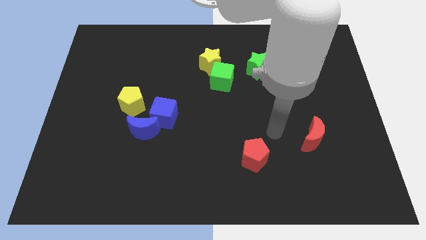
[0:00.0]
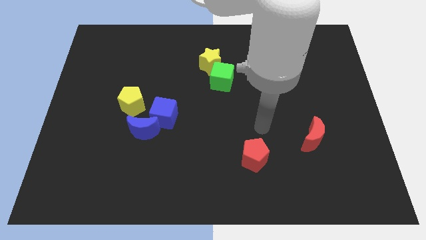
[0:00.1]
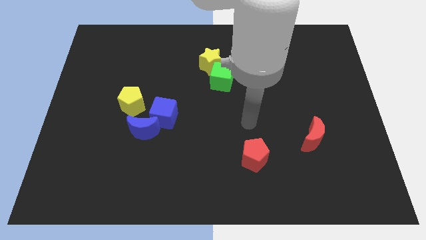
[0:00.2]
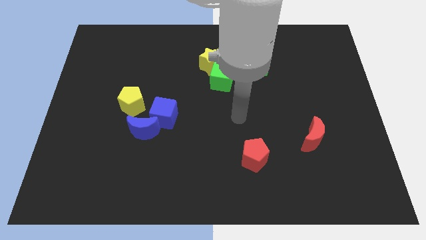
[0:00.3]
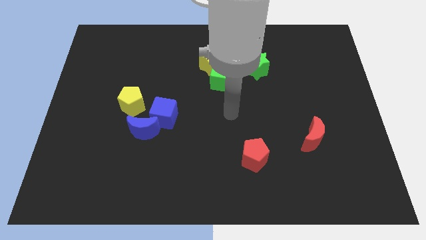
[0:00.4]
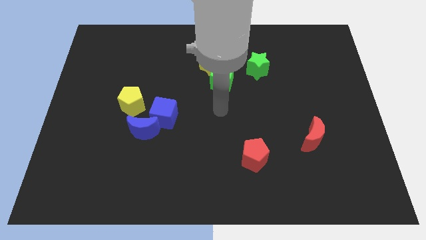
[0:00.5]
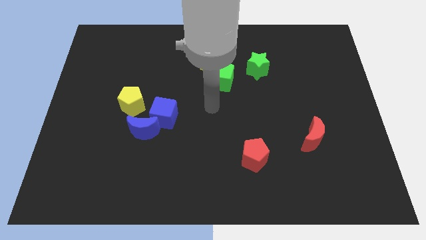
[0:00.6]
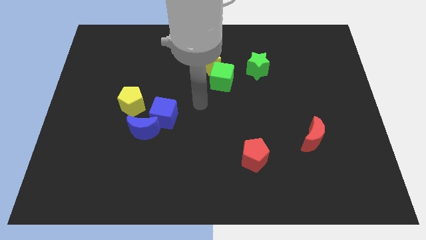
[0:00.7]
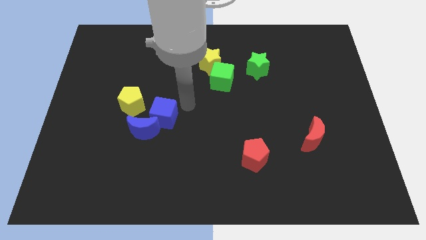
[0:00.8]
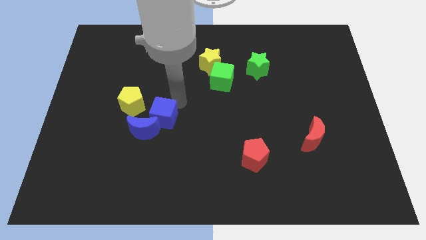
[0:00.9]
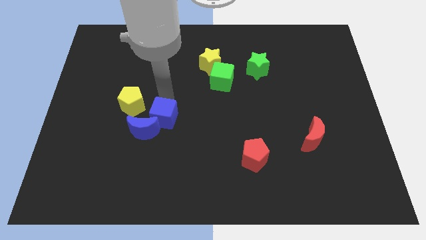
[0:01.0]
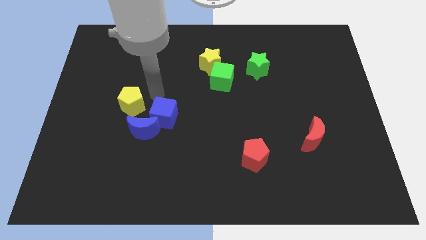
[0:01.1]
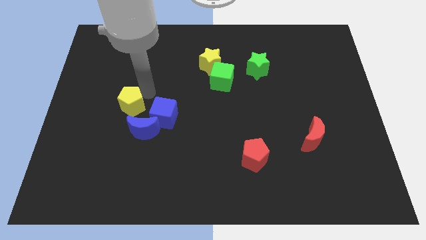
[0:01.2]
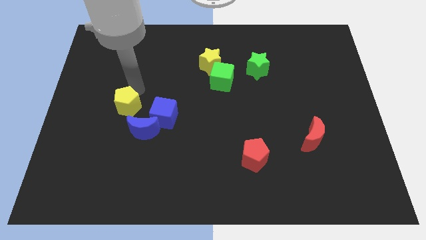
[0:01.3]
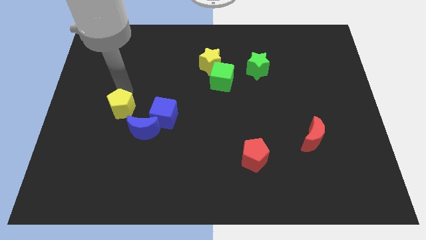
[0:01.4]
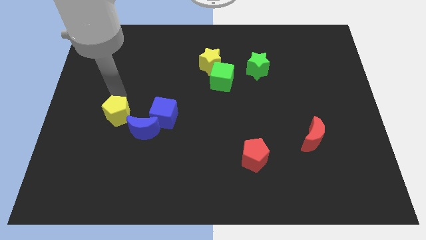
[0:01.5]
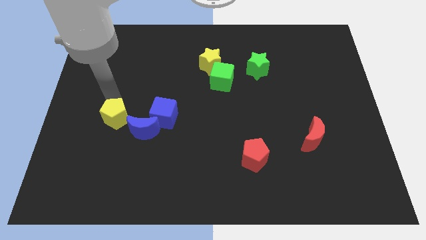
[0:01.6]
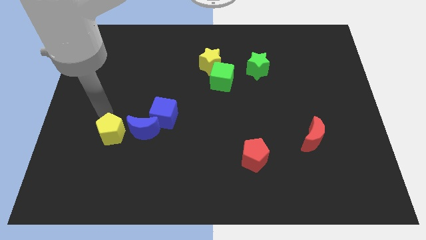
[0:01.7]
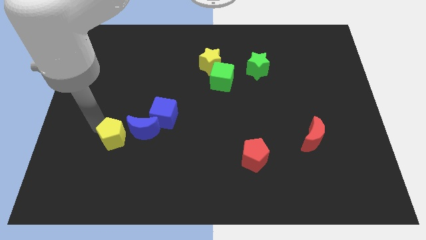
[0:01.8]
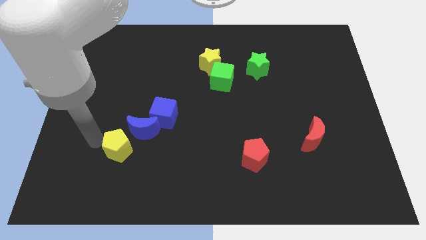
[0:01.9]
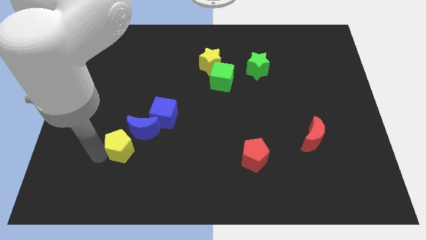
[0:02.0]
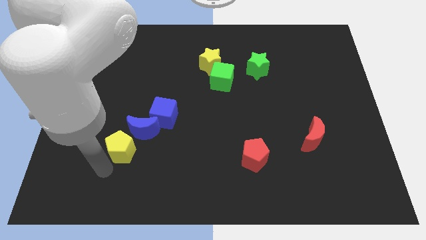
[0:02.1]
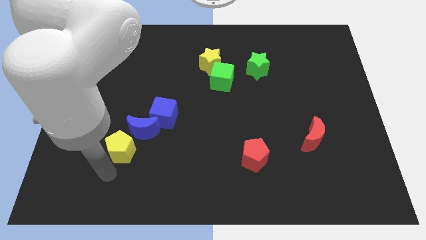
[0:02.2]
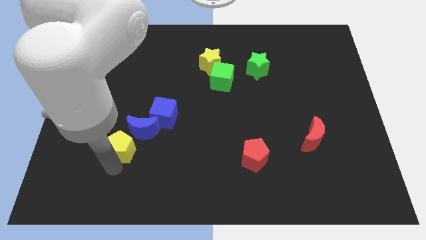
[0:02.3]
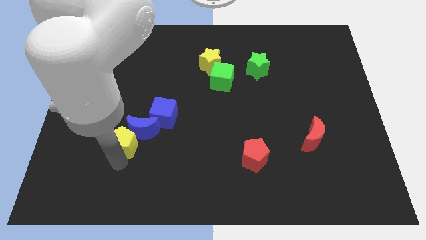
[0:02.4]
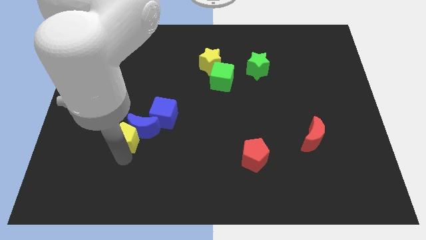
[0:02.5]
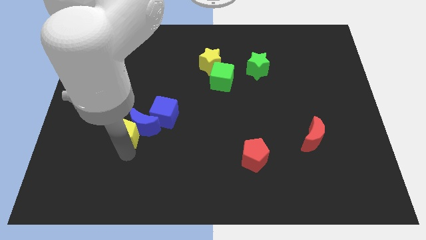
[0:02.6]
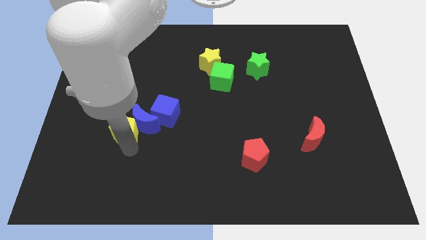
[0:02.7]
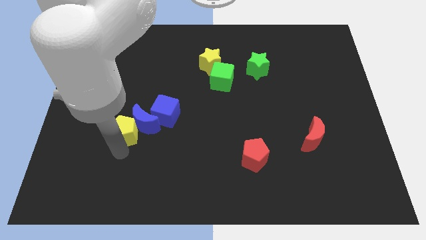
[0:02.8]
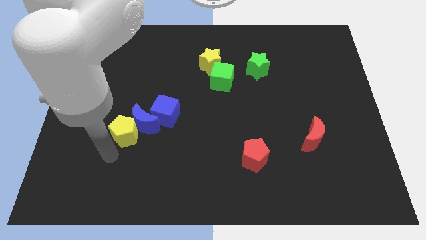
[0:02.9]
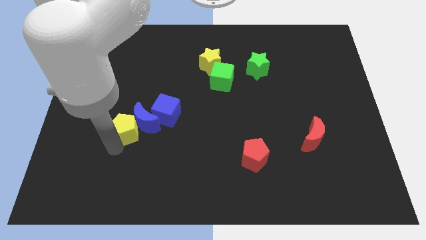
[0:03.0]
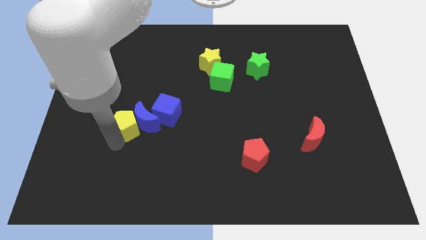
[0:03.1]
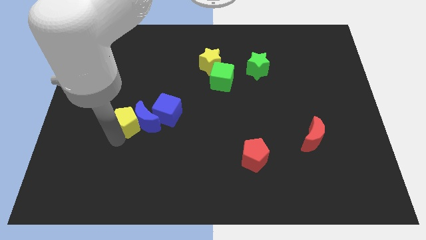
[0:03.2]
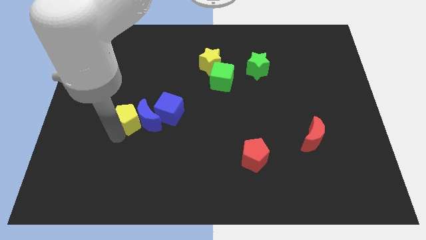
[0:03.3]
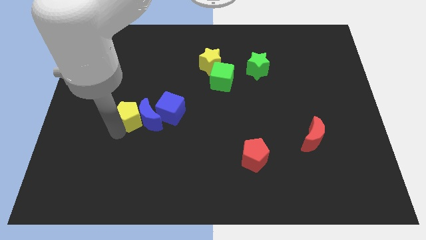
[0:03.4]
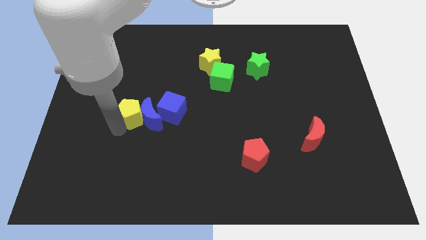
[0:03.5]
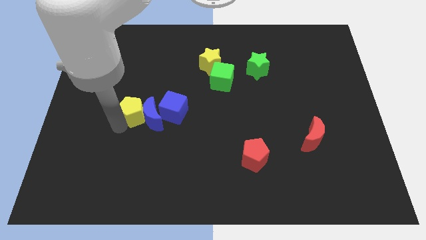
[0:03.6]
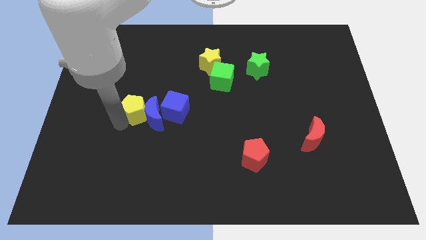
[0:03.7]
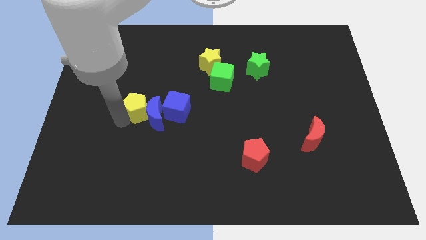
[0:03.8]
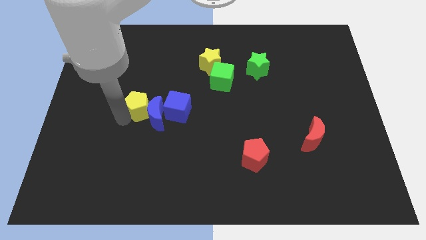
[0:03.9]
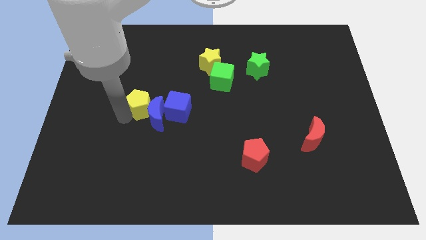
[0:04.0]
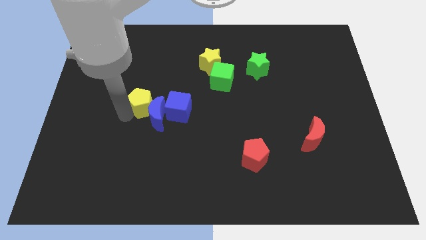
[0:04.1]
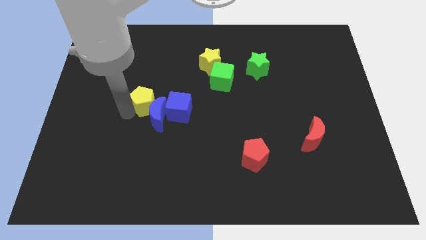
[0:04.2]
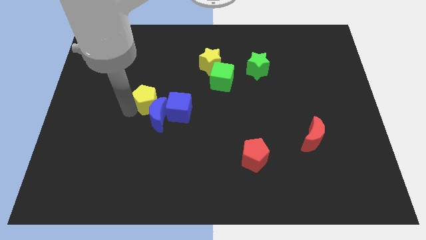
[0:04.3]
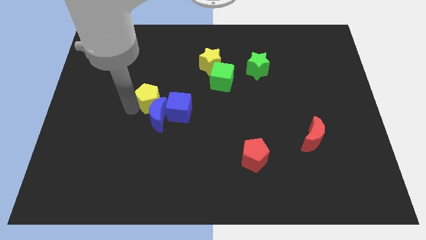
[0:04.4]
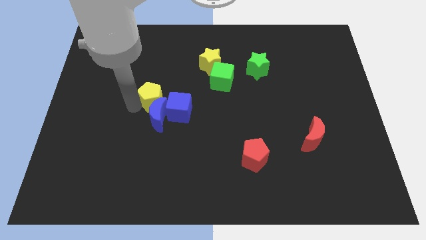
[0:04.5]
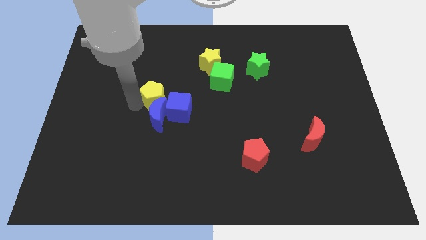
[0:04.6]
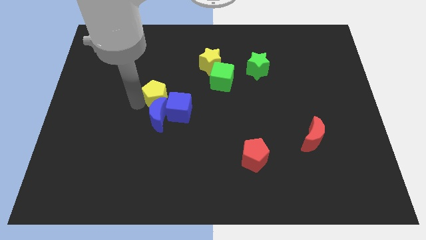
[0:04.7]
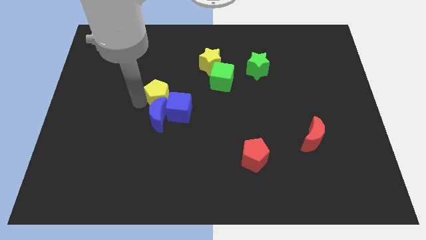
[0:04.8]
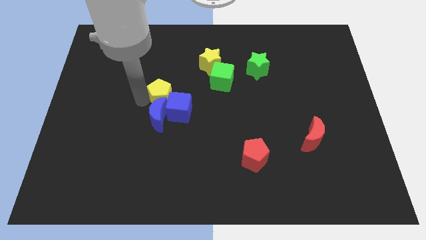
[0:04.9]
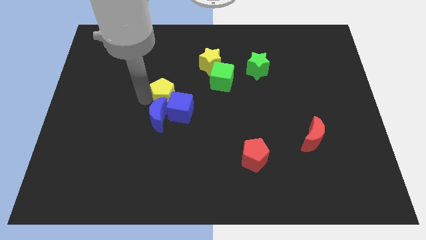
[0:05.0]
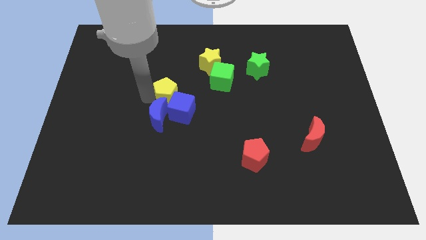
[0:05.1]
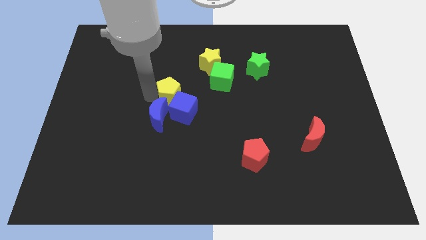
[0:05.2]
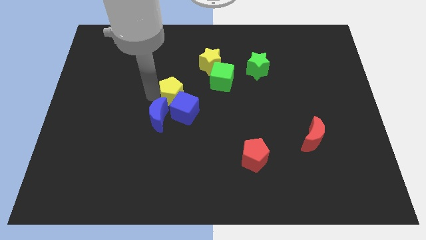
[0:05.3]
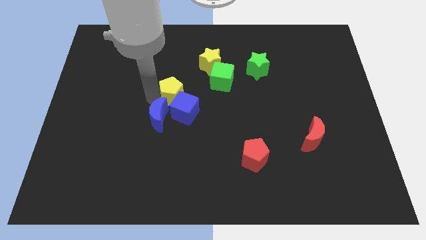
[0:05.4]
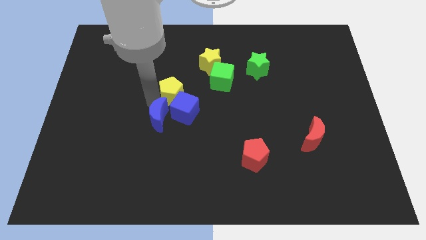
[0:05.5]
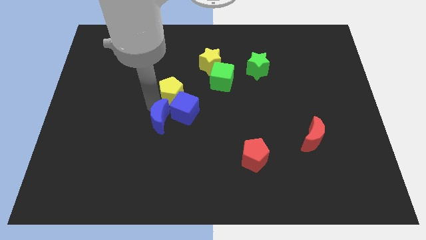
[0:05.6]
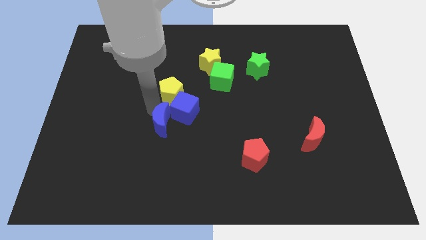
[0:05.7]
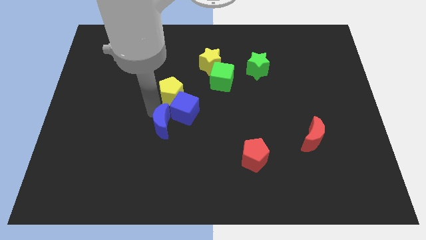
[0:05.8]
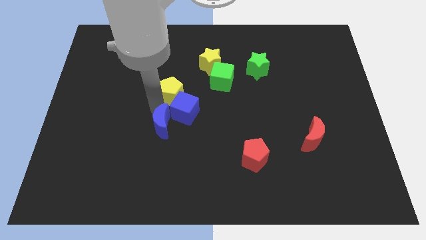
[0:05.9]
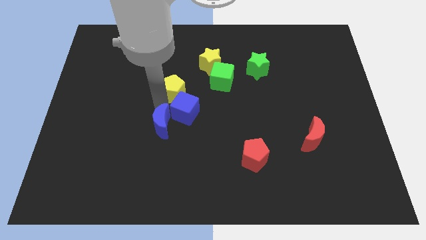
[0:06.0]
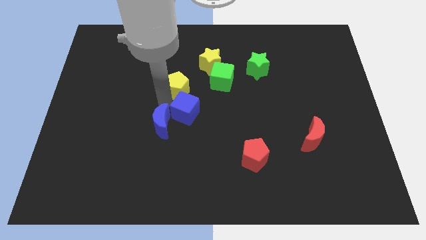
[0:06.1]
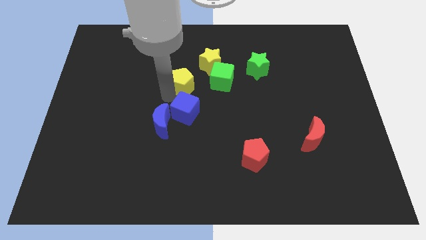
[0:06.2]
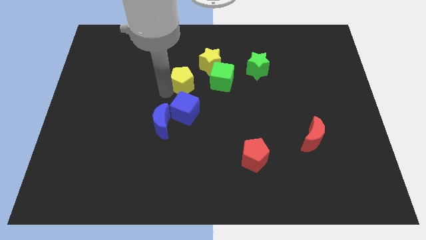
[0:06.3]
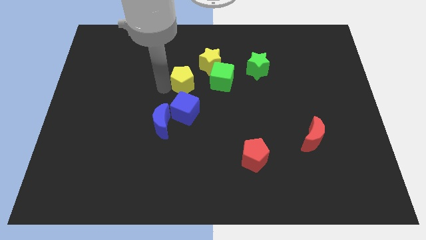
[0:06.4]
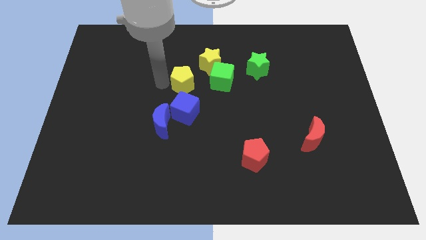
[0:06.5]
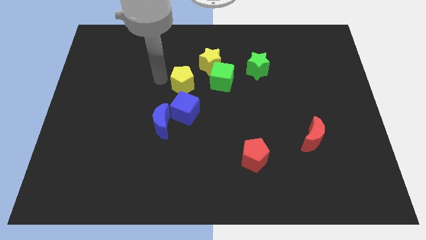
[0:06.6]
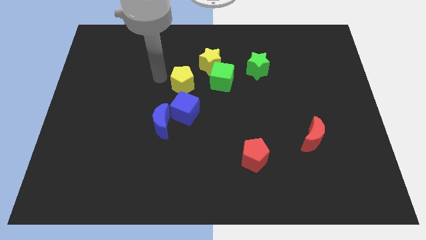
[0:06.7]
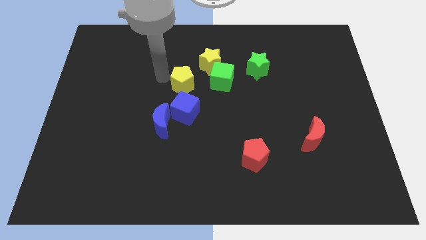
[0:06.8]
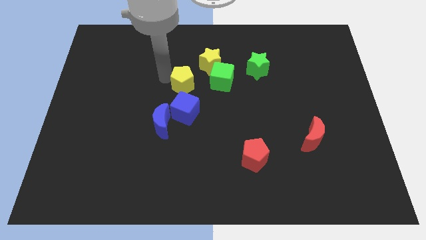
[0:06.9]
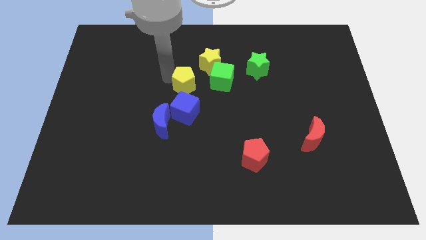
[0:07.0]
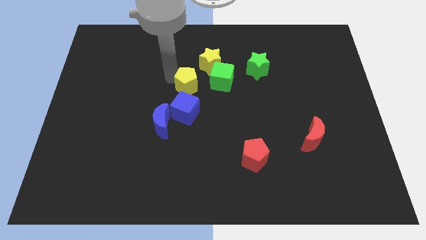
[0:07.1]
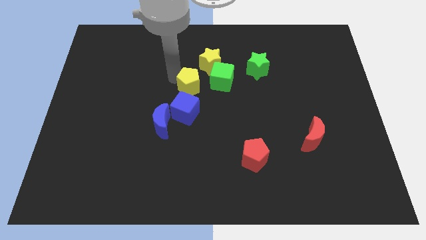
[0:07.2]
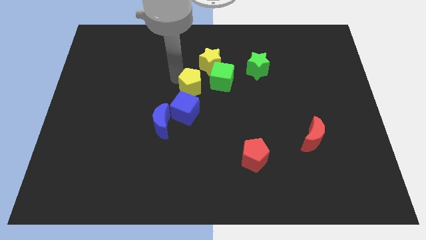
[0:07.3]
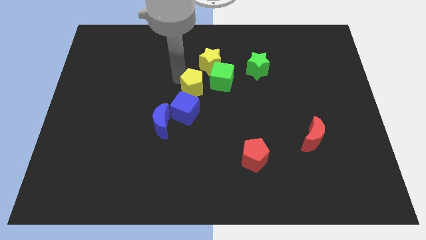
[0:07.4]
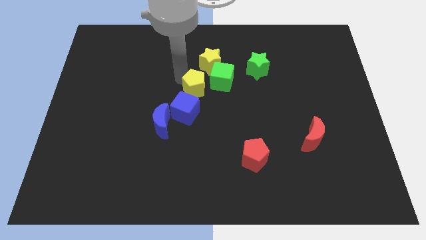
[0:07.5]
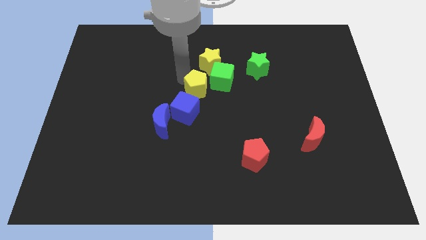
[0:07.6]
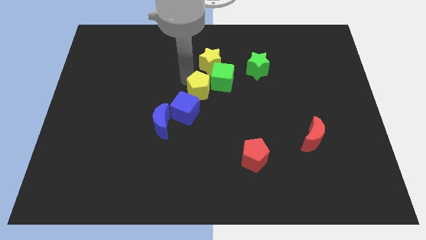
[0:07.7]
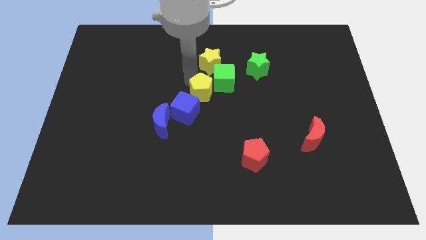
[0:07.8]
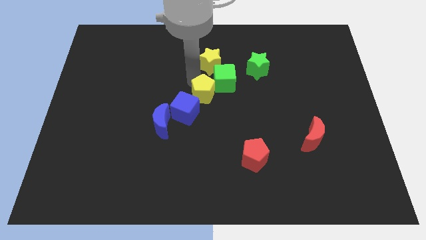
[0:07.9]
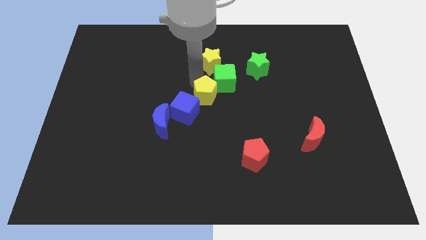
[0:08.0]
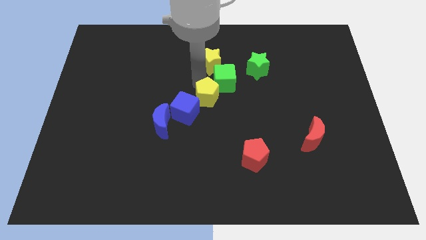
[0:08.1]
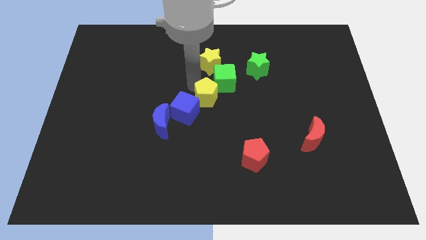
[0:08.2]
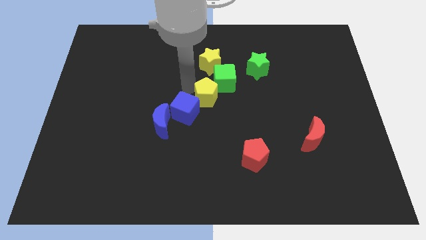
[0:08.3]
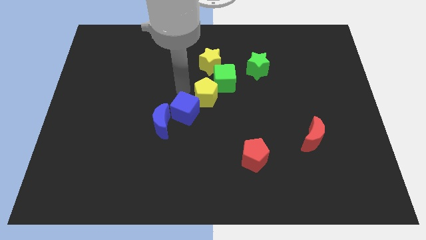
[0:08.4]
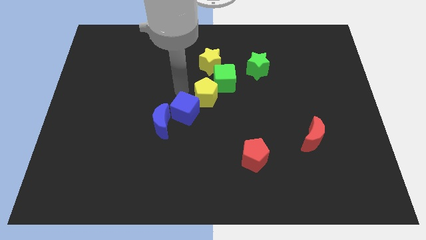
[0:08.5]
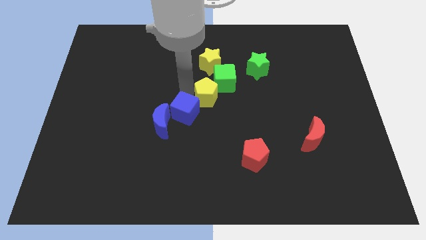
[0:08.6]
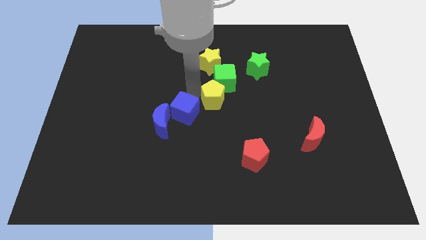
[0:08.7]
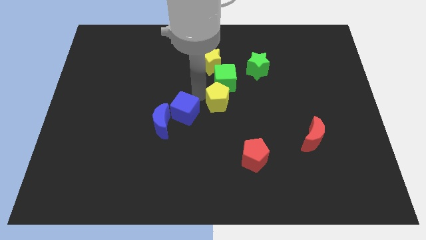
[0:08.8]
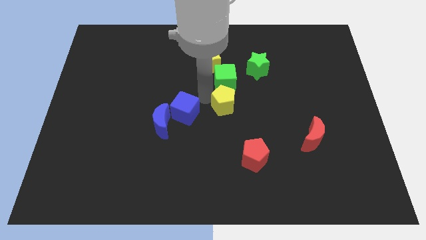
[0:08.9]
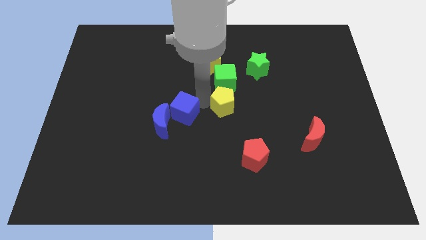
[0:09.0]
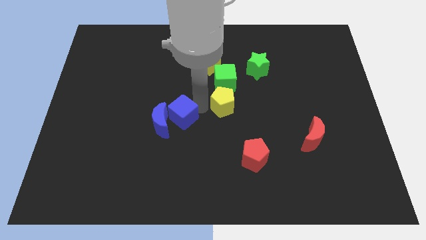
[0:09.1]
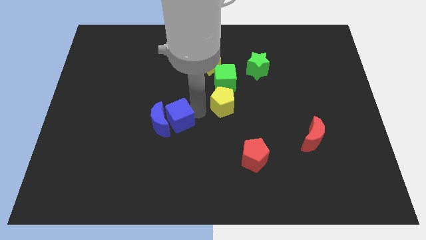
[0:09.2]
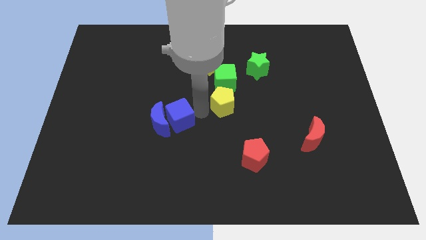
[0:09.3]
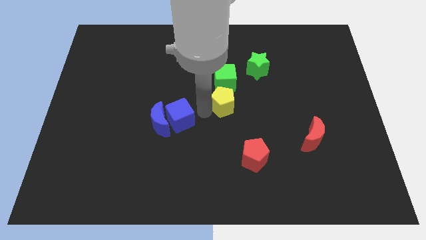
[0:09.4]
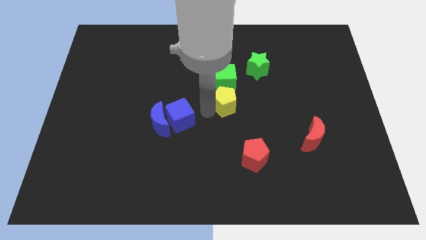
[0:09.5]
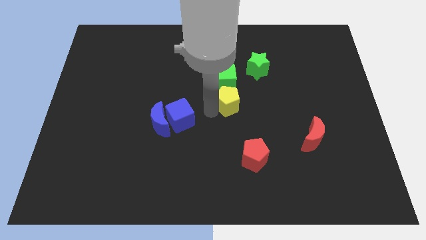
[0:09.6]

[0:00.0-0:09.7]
slide the yellow pentagon diagonally down and to the right of the green cube
